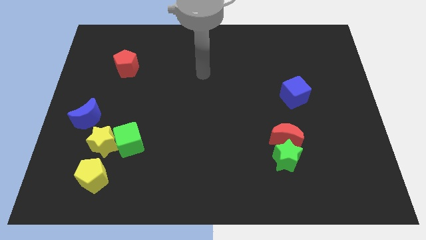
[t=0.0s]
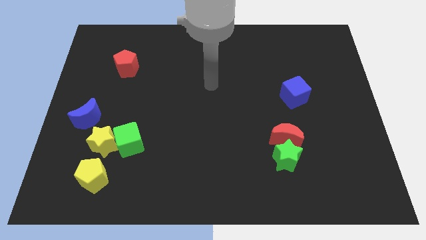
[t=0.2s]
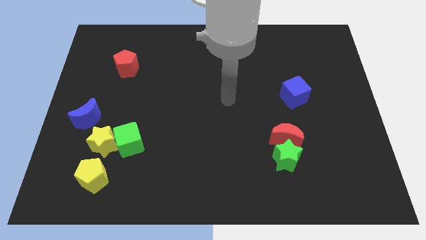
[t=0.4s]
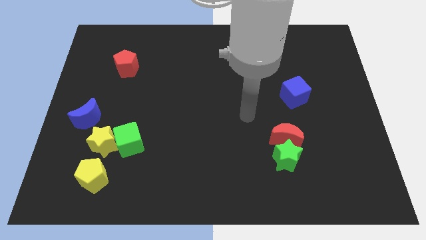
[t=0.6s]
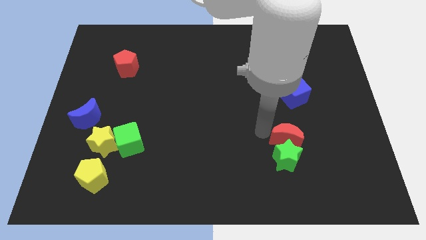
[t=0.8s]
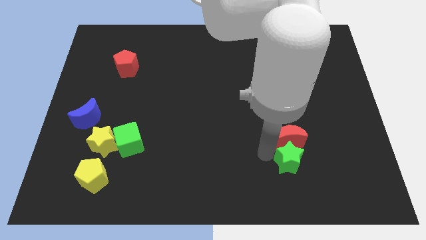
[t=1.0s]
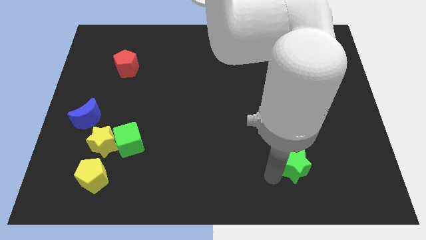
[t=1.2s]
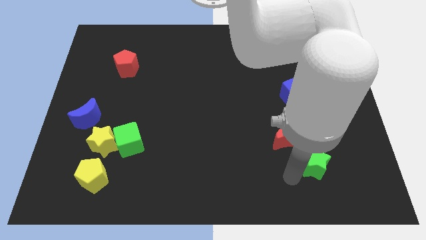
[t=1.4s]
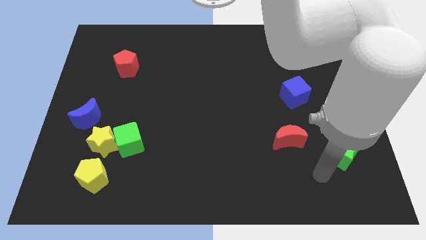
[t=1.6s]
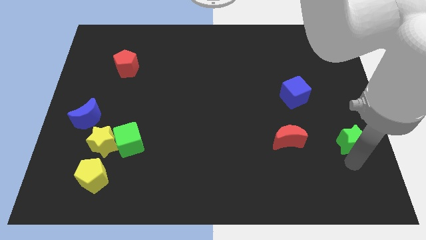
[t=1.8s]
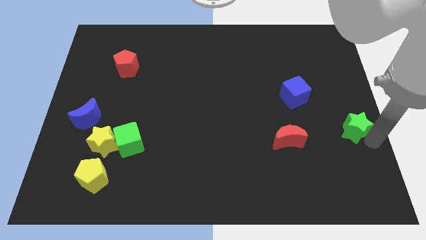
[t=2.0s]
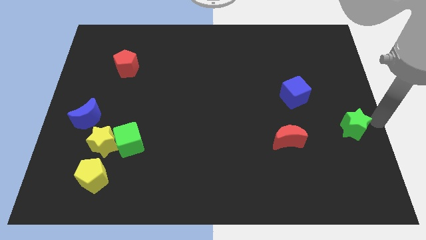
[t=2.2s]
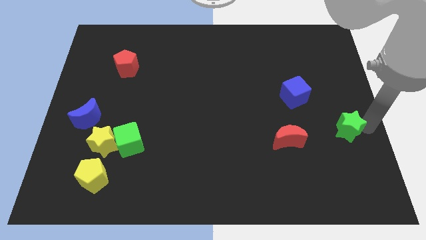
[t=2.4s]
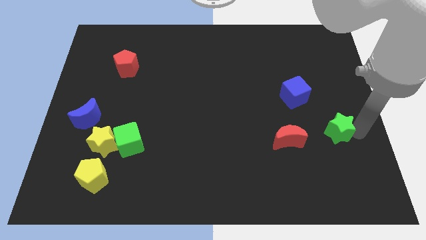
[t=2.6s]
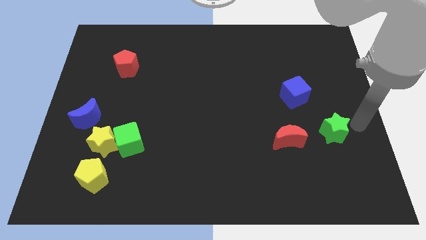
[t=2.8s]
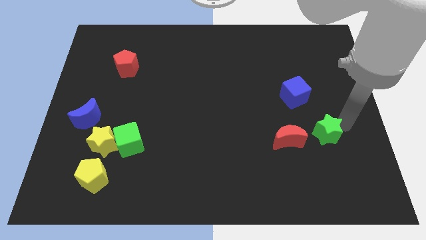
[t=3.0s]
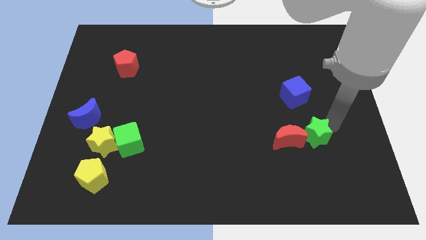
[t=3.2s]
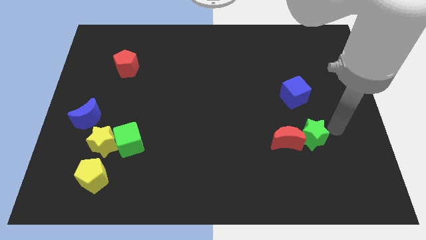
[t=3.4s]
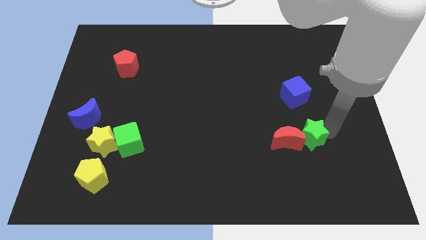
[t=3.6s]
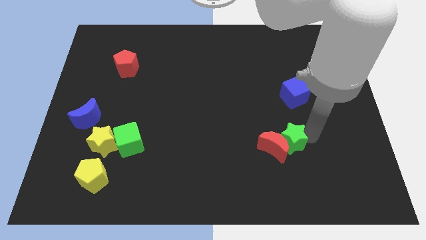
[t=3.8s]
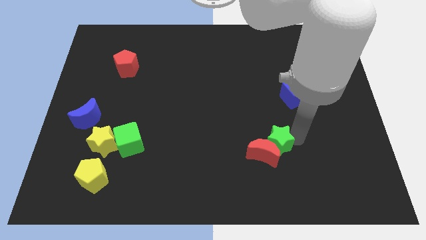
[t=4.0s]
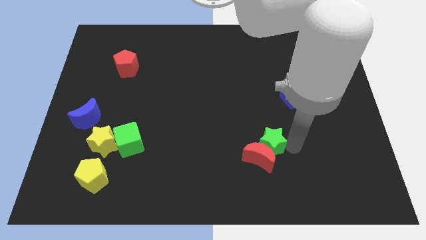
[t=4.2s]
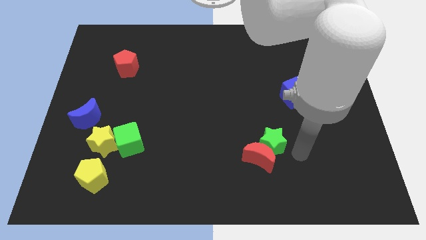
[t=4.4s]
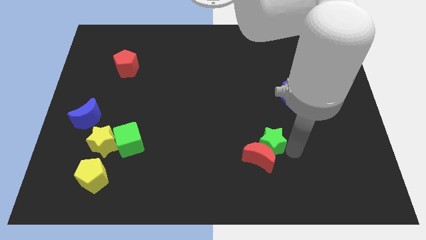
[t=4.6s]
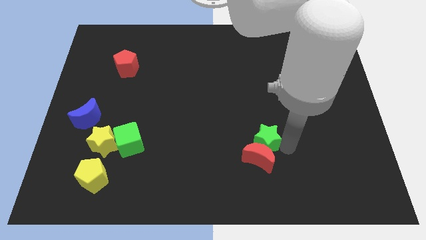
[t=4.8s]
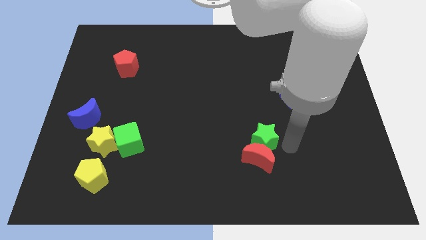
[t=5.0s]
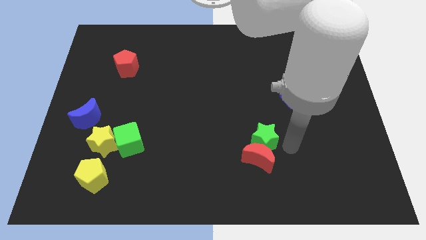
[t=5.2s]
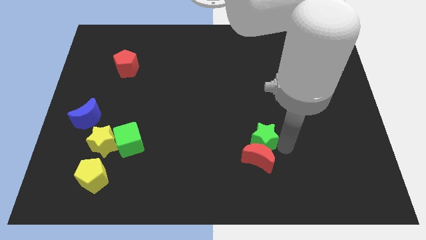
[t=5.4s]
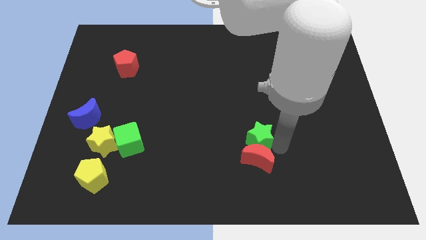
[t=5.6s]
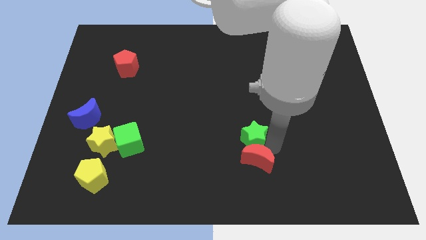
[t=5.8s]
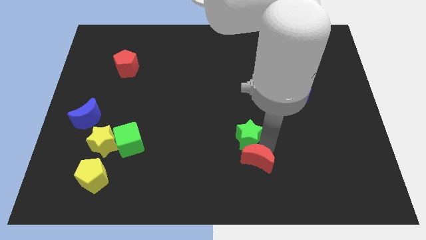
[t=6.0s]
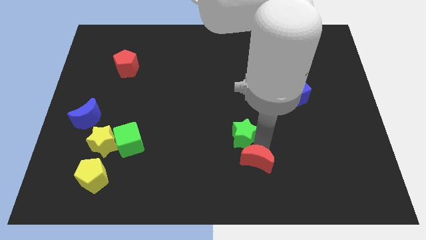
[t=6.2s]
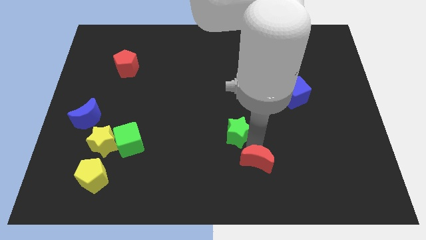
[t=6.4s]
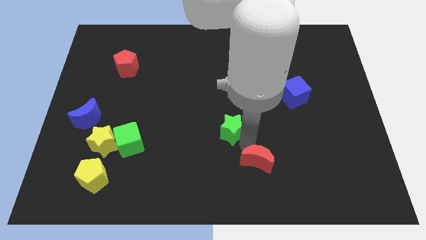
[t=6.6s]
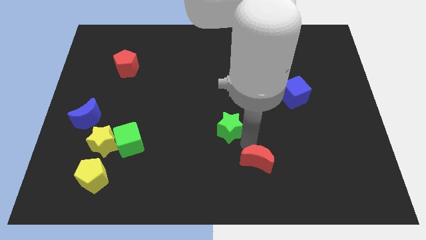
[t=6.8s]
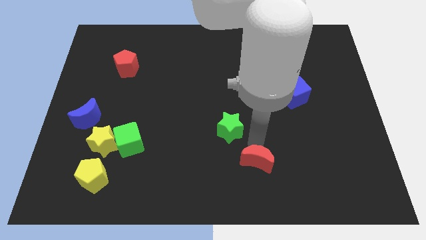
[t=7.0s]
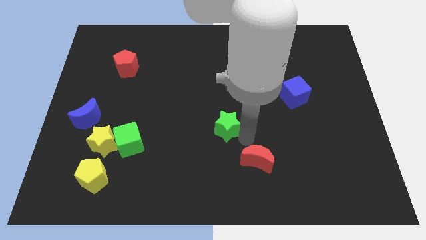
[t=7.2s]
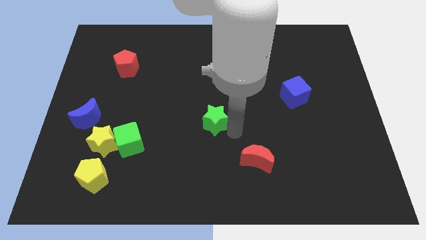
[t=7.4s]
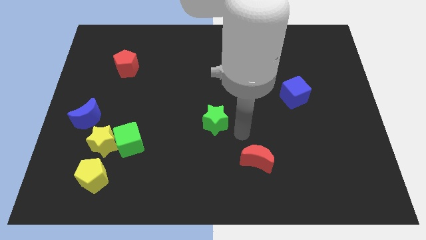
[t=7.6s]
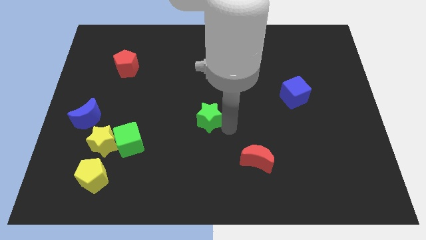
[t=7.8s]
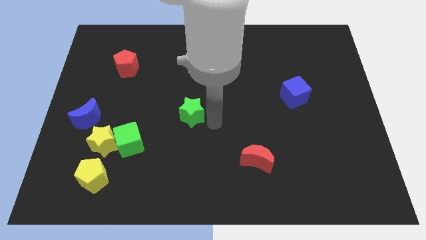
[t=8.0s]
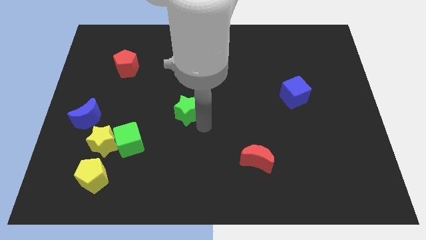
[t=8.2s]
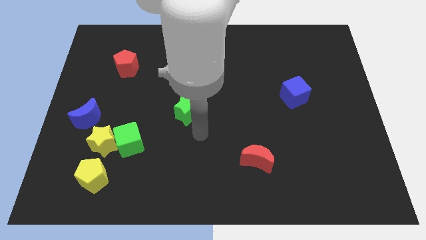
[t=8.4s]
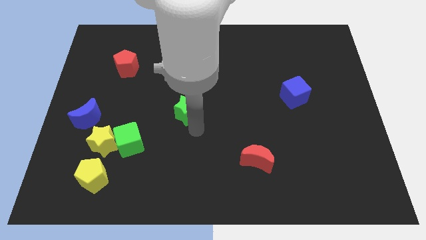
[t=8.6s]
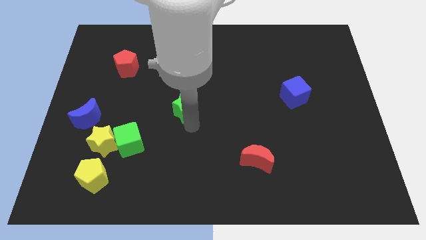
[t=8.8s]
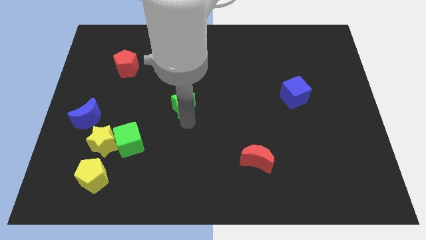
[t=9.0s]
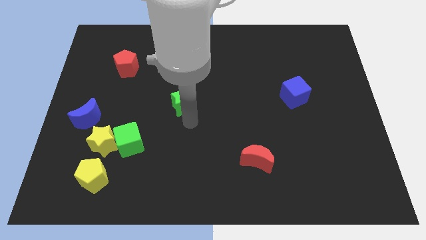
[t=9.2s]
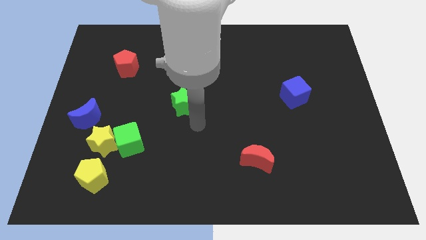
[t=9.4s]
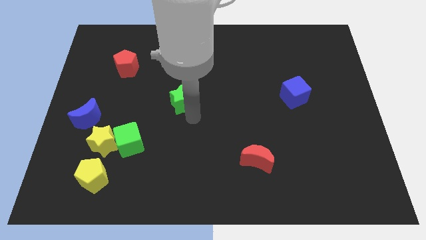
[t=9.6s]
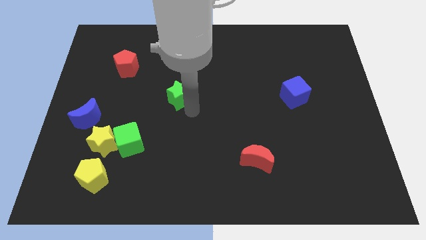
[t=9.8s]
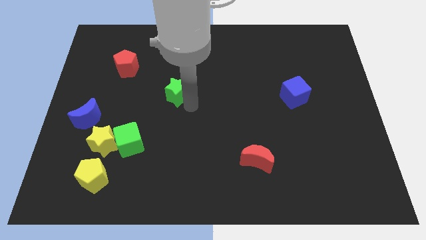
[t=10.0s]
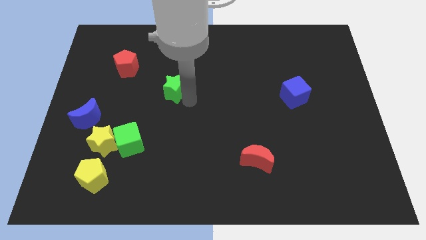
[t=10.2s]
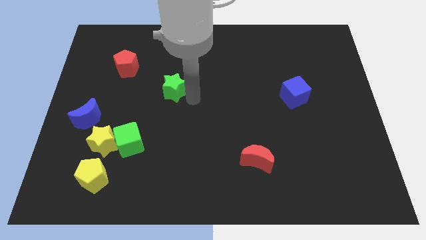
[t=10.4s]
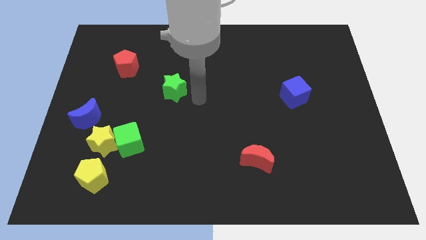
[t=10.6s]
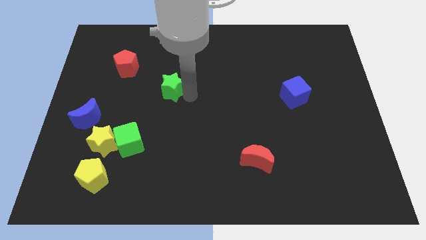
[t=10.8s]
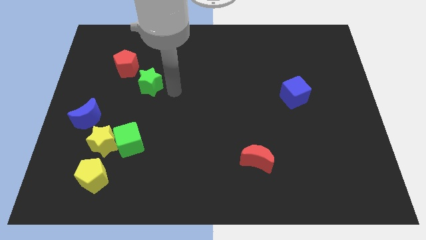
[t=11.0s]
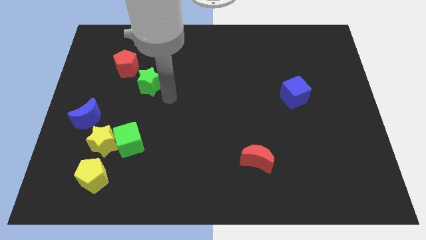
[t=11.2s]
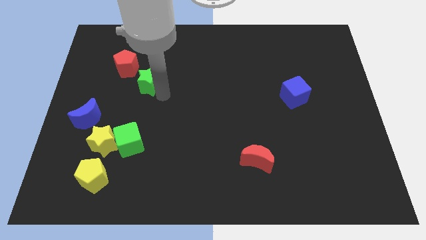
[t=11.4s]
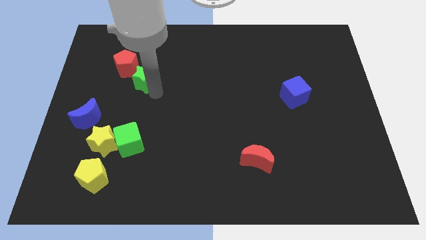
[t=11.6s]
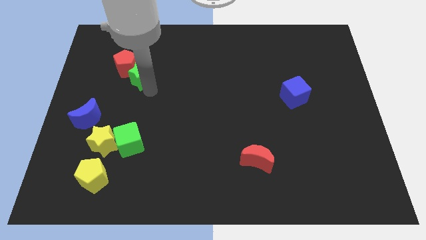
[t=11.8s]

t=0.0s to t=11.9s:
move the green star close to the red pentagon

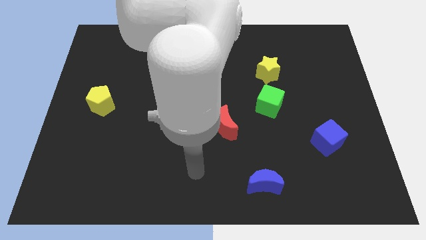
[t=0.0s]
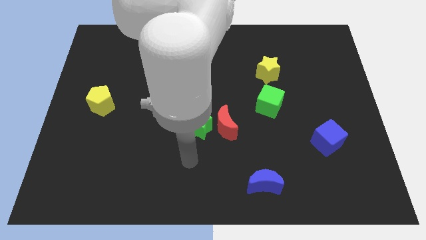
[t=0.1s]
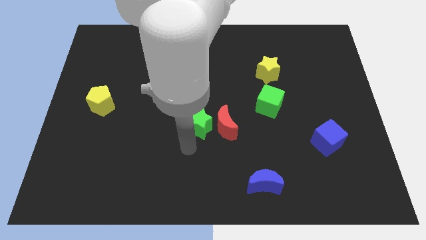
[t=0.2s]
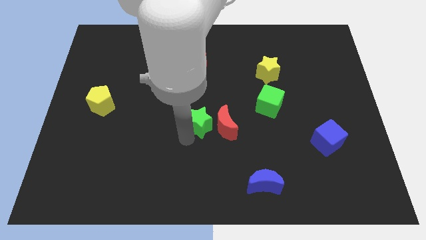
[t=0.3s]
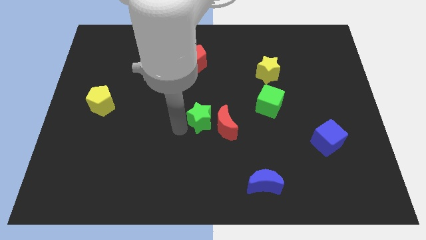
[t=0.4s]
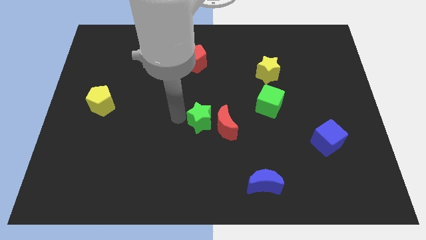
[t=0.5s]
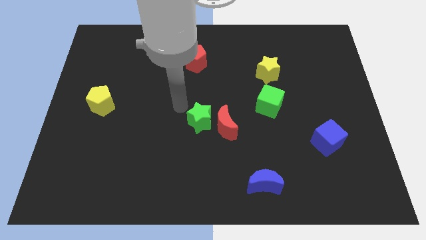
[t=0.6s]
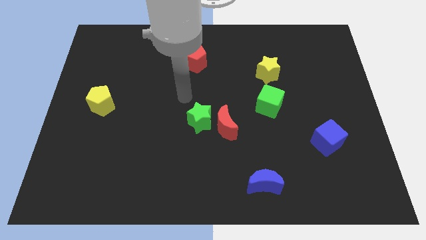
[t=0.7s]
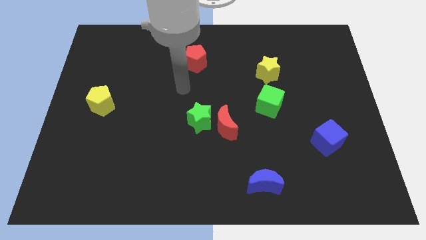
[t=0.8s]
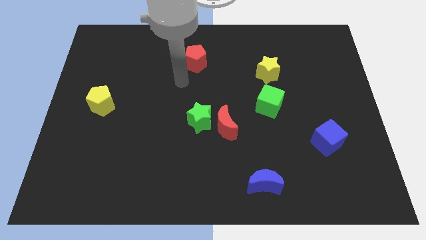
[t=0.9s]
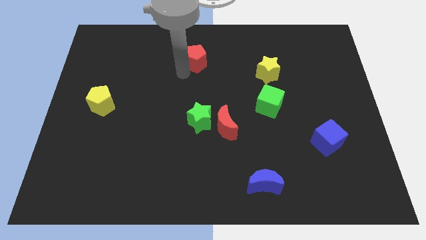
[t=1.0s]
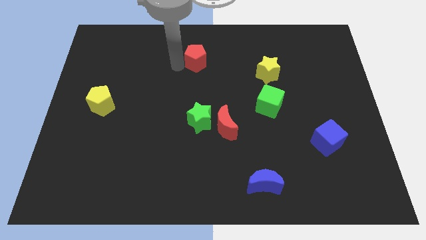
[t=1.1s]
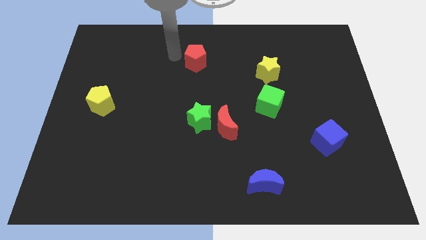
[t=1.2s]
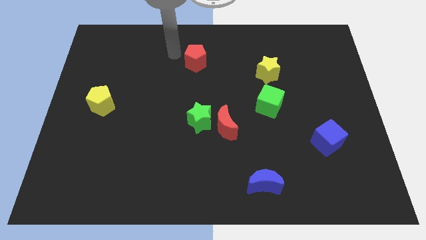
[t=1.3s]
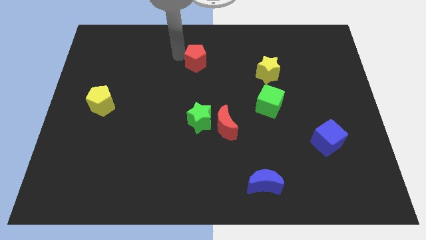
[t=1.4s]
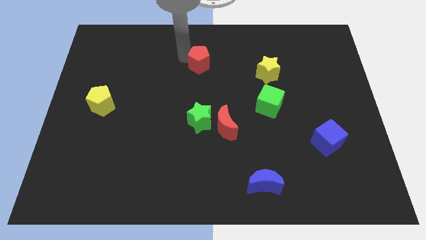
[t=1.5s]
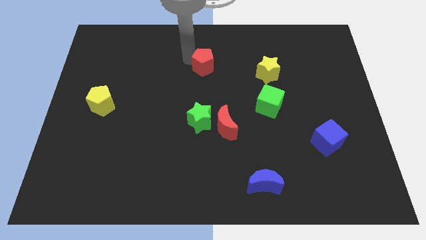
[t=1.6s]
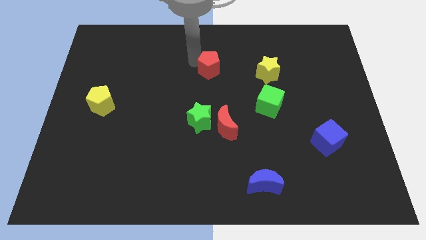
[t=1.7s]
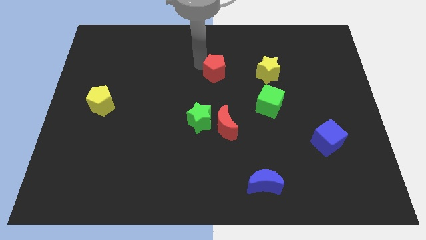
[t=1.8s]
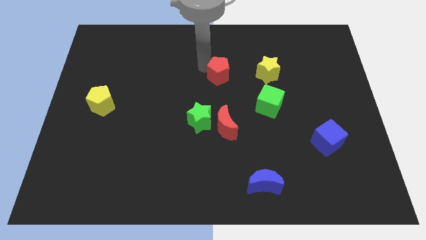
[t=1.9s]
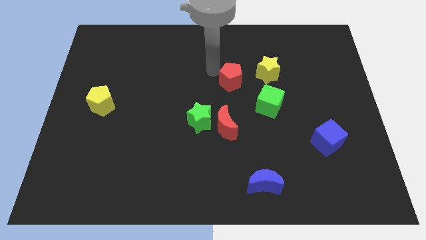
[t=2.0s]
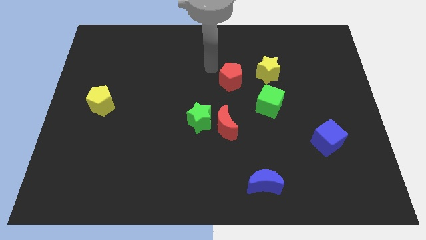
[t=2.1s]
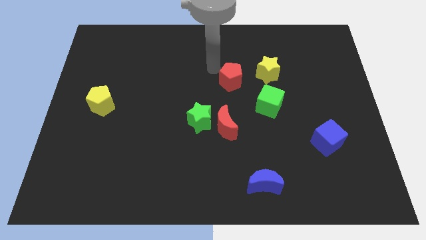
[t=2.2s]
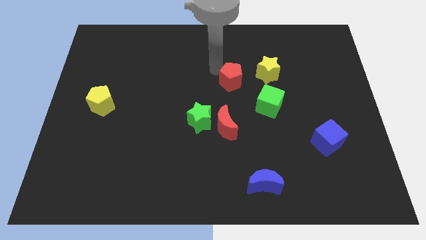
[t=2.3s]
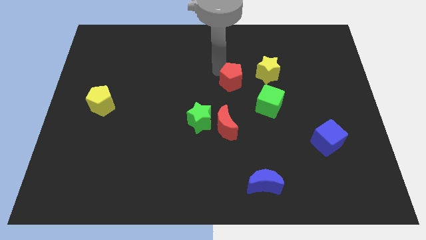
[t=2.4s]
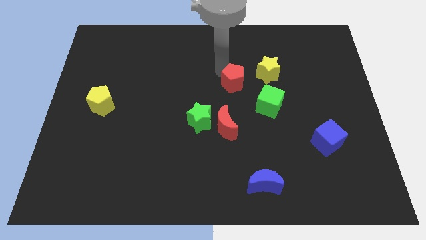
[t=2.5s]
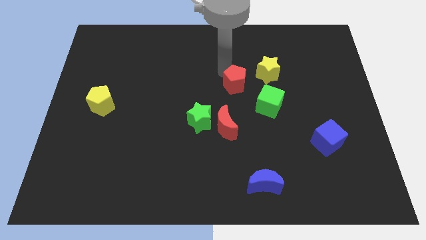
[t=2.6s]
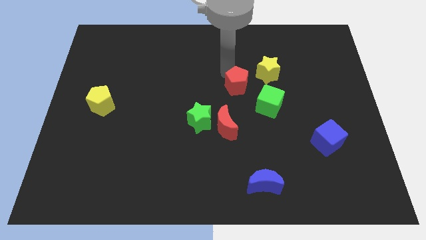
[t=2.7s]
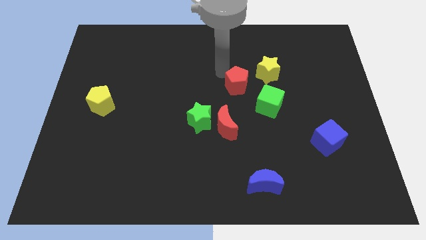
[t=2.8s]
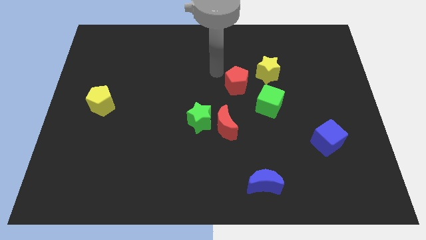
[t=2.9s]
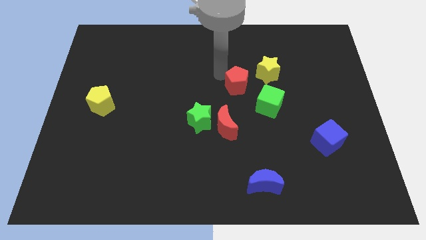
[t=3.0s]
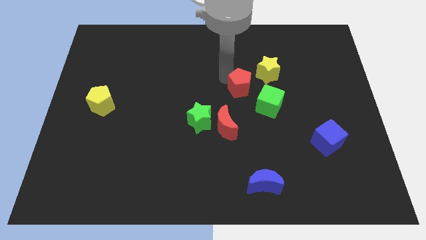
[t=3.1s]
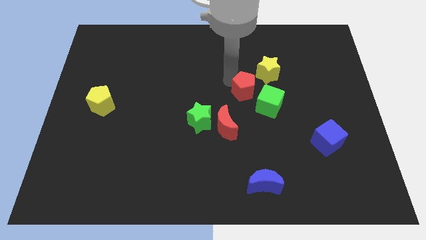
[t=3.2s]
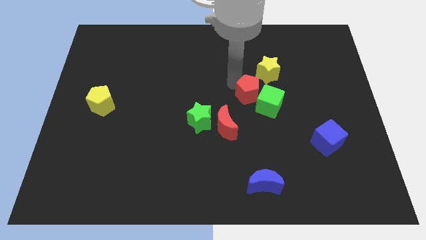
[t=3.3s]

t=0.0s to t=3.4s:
slide the red pentagon towards the green cube
